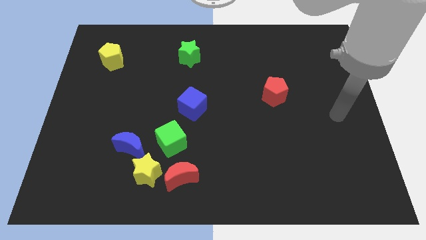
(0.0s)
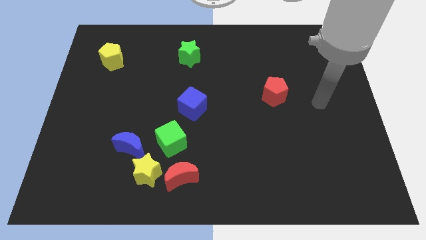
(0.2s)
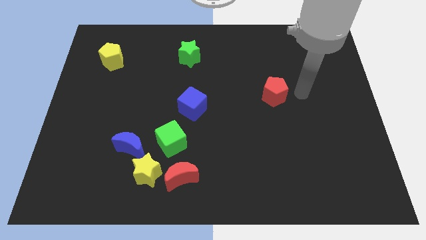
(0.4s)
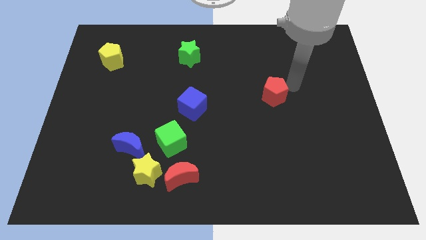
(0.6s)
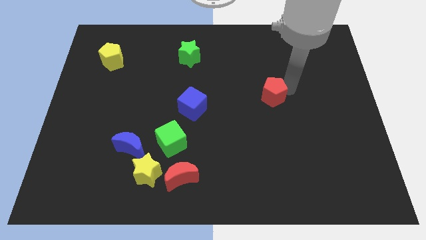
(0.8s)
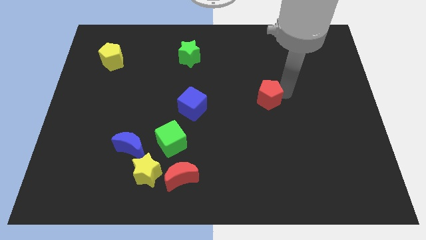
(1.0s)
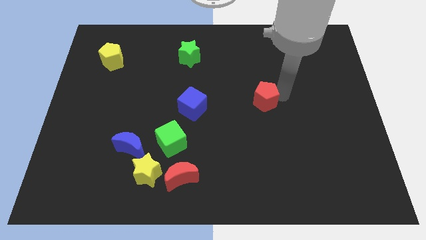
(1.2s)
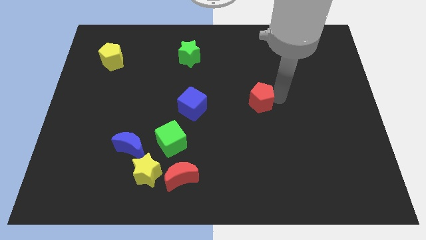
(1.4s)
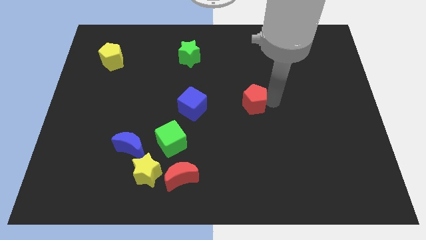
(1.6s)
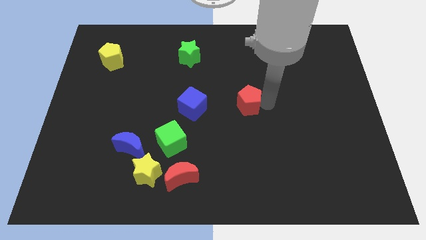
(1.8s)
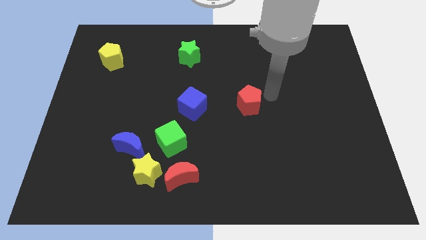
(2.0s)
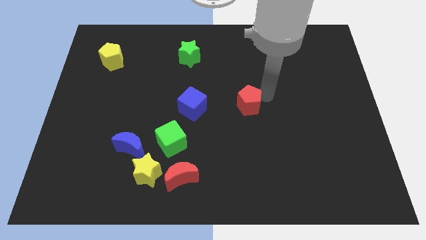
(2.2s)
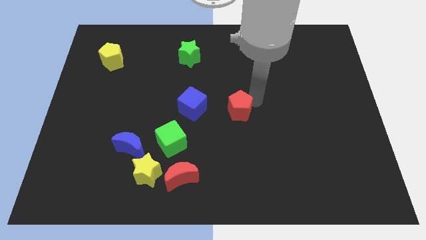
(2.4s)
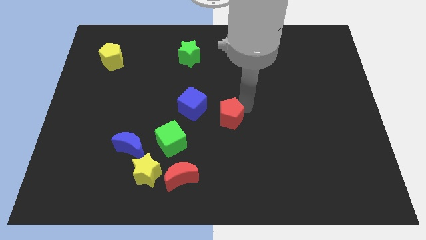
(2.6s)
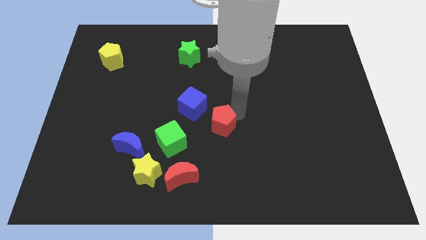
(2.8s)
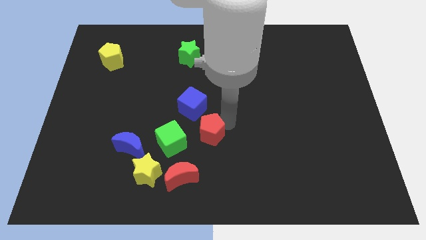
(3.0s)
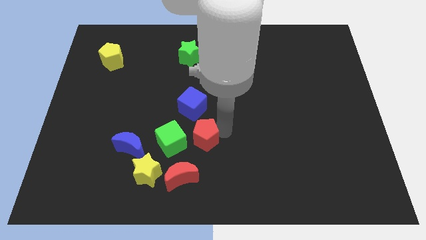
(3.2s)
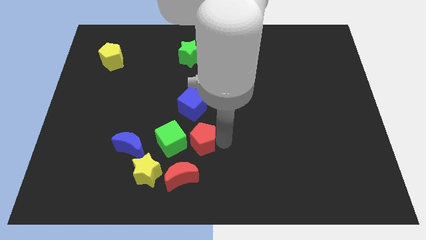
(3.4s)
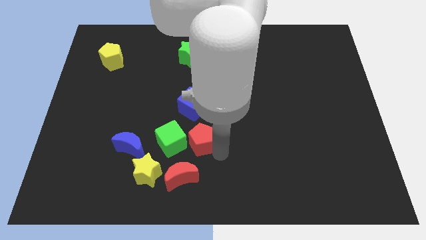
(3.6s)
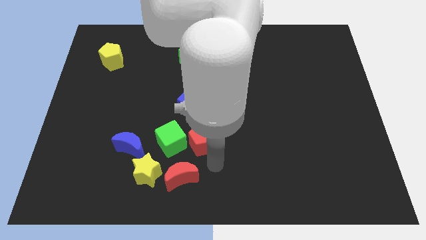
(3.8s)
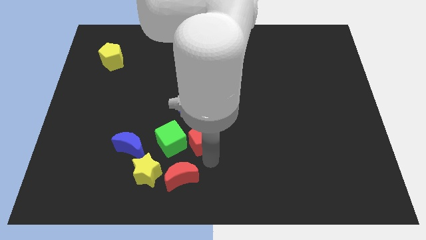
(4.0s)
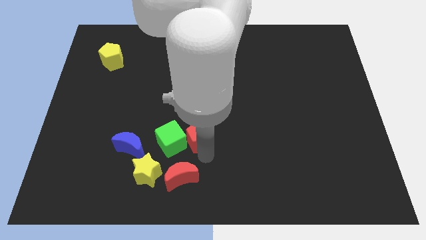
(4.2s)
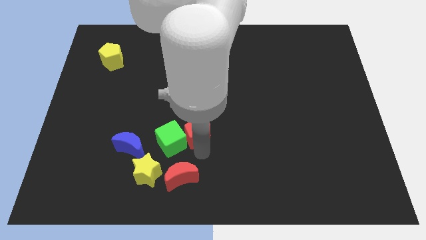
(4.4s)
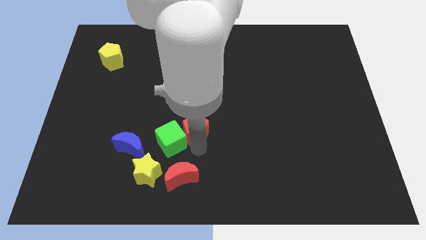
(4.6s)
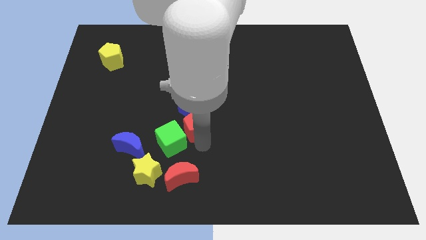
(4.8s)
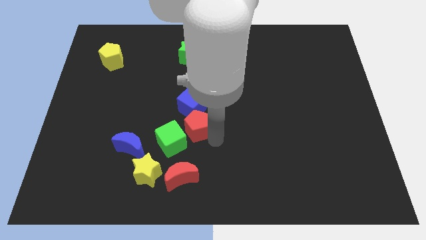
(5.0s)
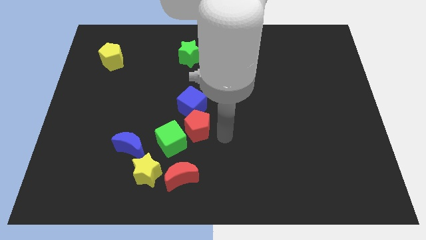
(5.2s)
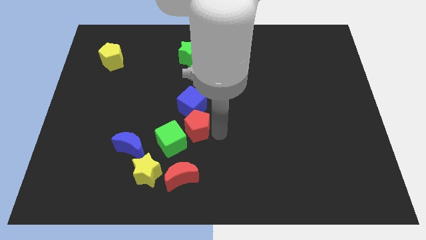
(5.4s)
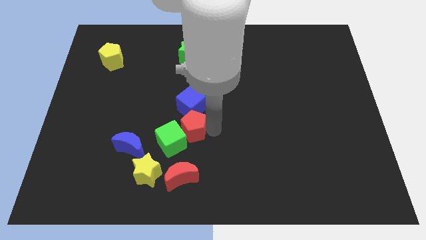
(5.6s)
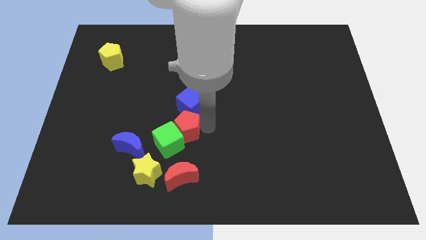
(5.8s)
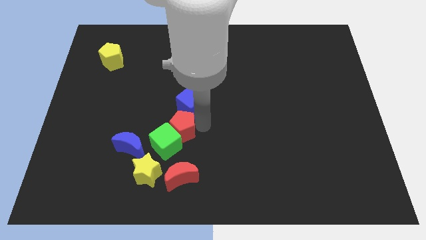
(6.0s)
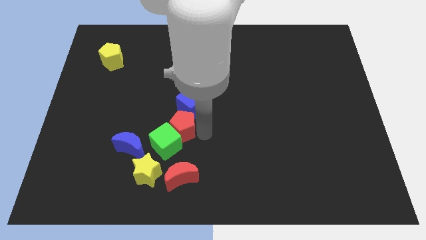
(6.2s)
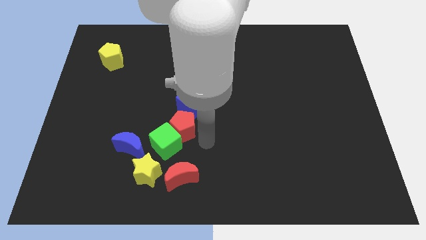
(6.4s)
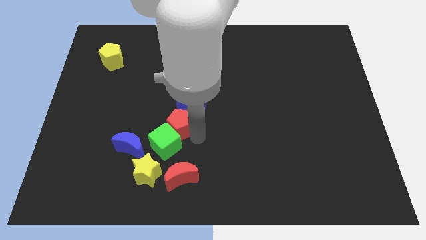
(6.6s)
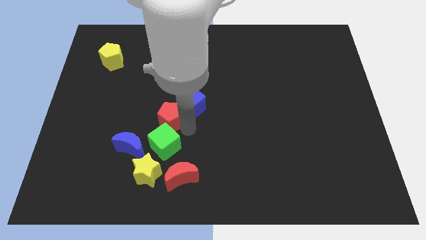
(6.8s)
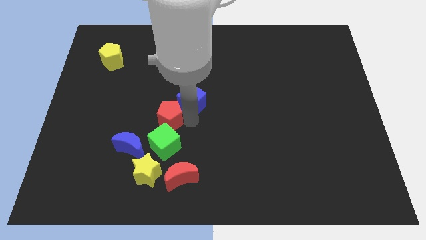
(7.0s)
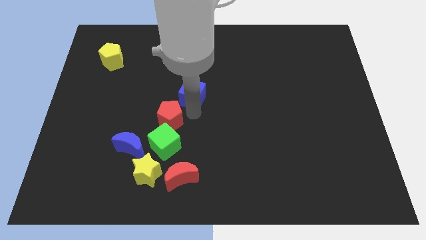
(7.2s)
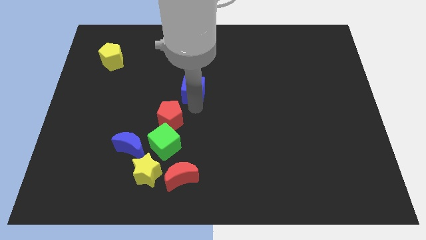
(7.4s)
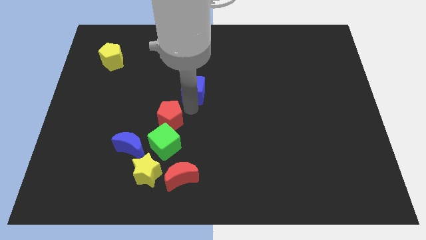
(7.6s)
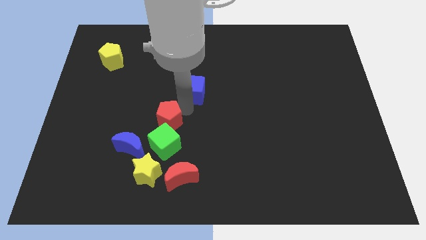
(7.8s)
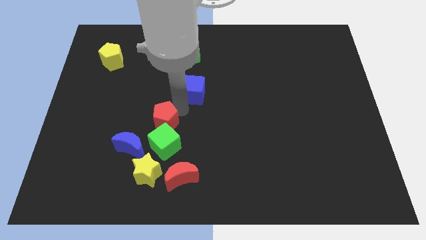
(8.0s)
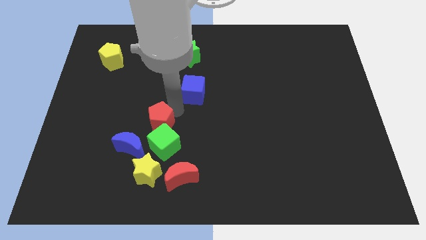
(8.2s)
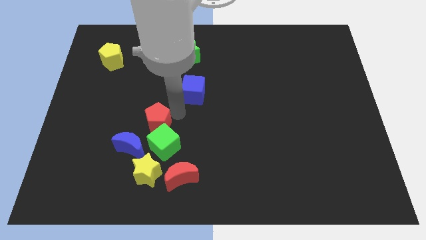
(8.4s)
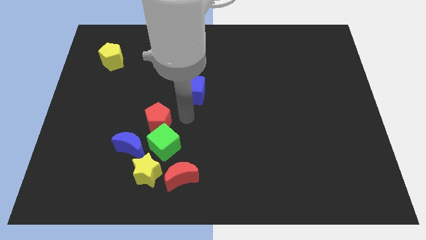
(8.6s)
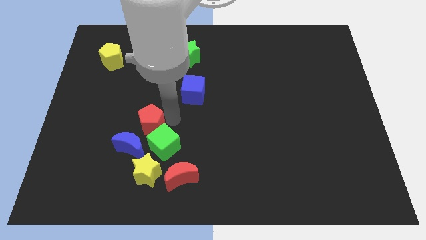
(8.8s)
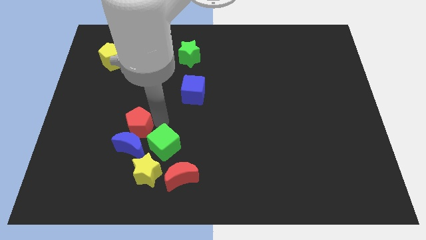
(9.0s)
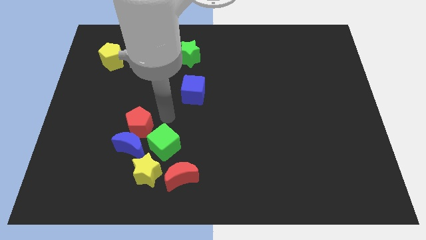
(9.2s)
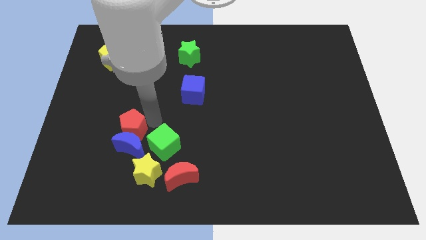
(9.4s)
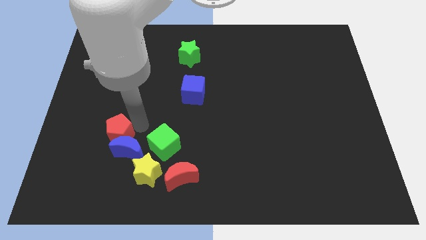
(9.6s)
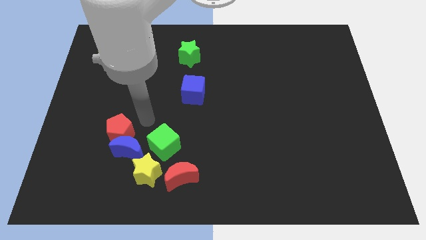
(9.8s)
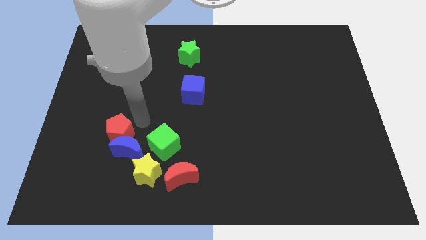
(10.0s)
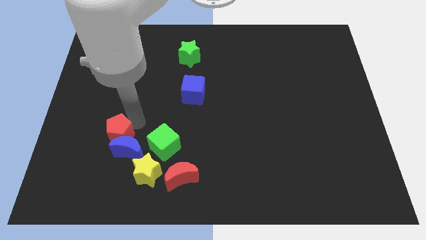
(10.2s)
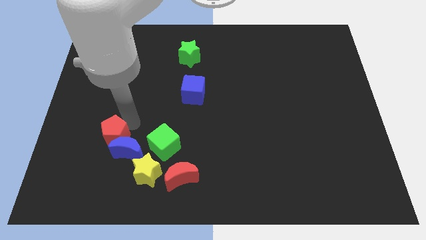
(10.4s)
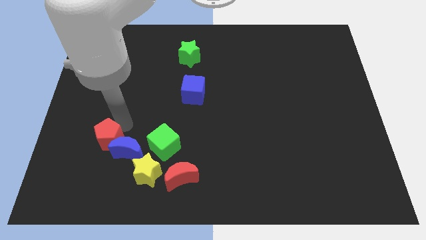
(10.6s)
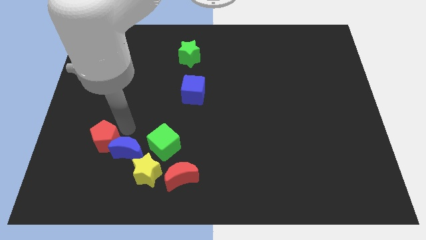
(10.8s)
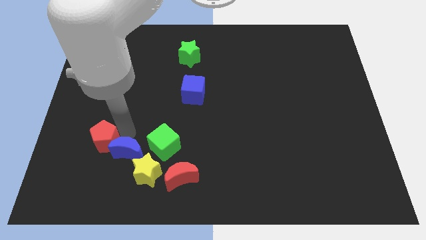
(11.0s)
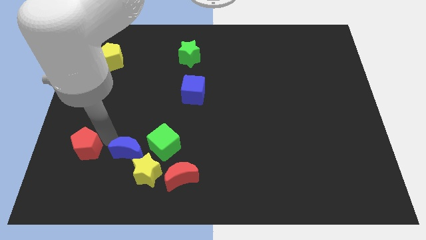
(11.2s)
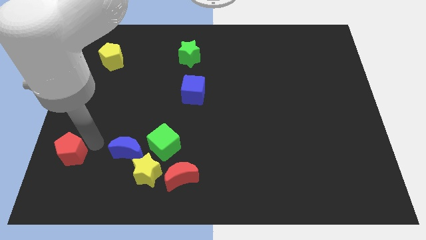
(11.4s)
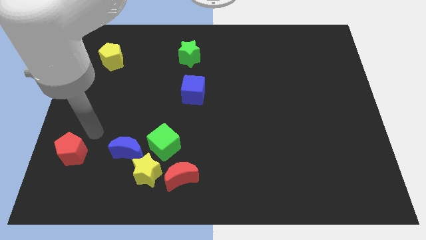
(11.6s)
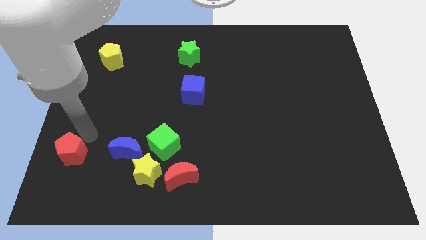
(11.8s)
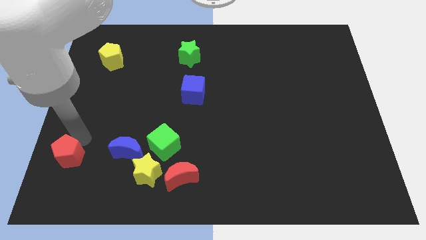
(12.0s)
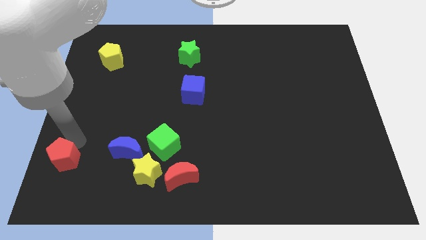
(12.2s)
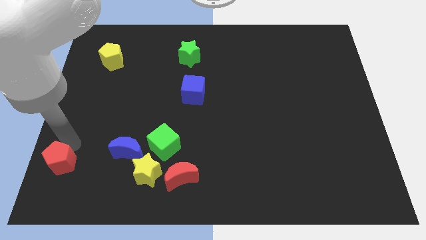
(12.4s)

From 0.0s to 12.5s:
push the red pentagon to the lower left corner
